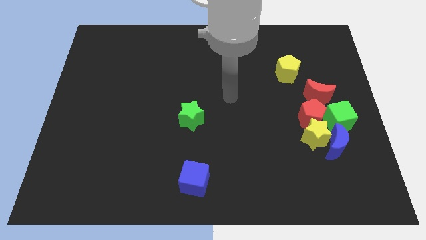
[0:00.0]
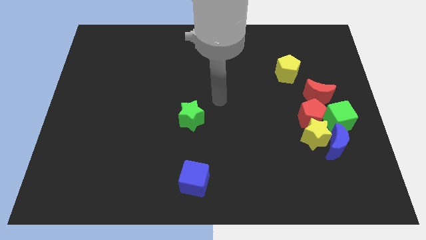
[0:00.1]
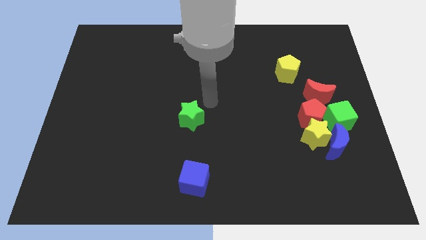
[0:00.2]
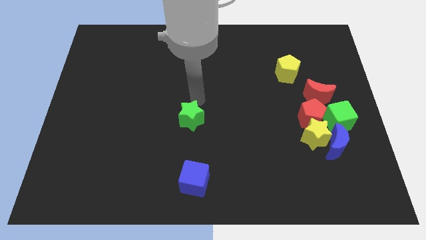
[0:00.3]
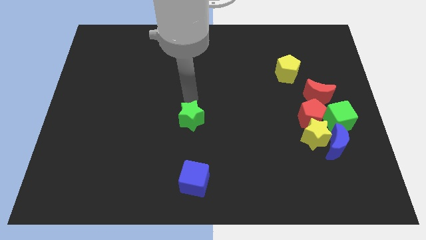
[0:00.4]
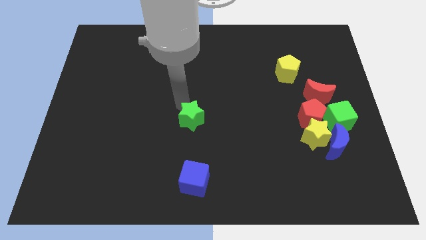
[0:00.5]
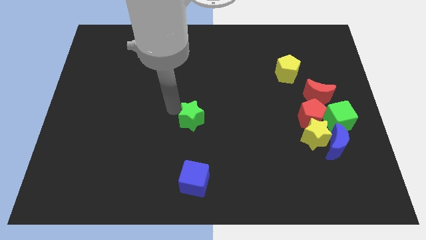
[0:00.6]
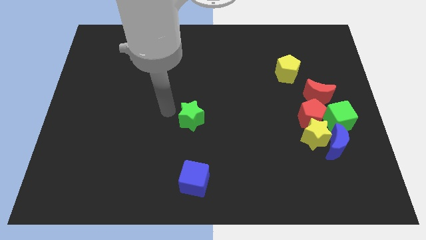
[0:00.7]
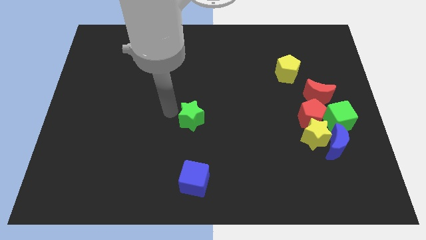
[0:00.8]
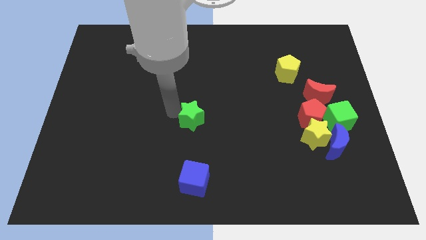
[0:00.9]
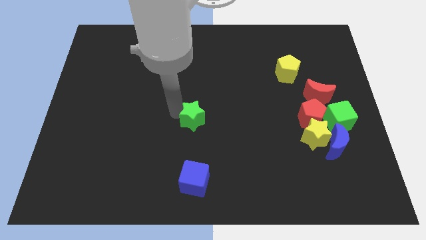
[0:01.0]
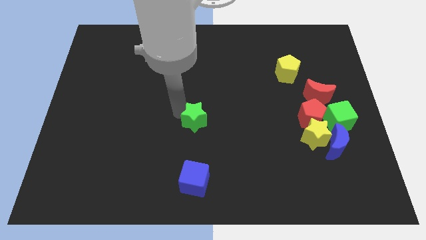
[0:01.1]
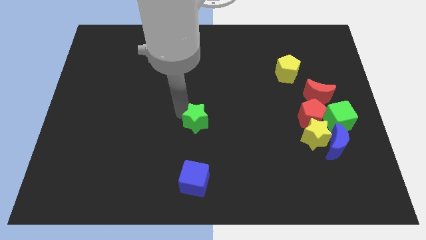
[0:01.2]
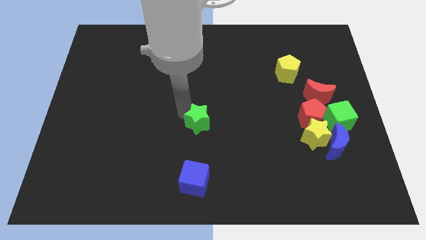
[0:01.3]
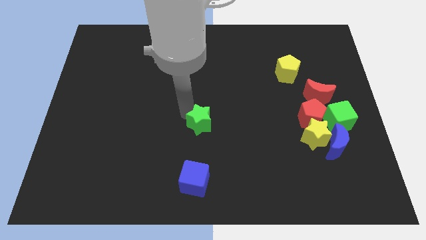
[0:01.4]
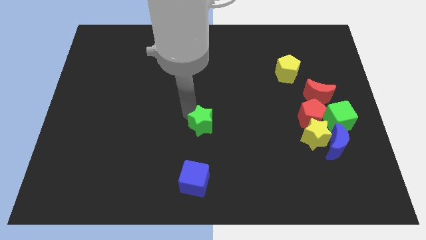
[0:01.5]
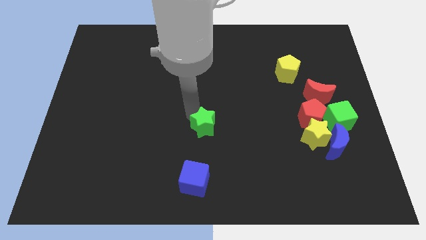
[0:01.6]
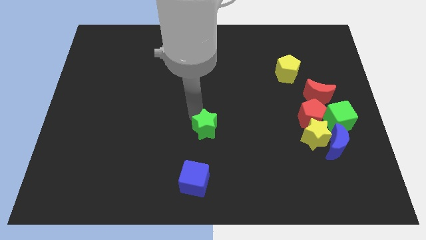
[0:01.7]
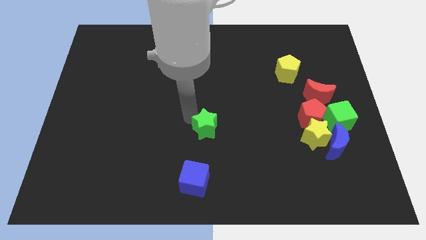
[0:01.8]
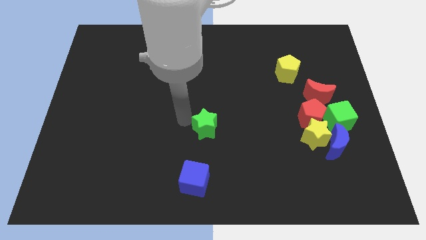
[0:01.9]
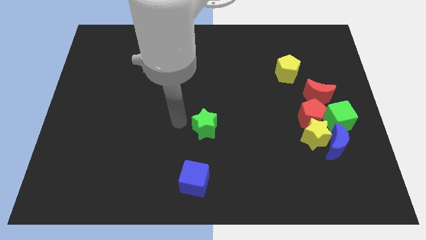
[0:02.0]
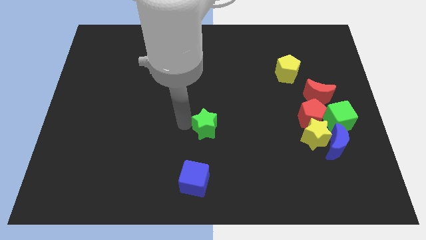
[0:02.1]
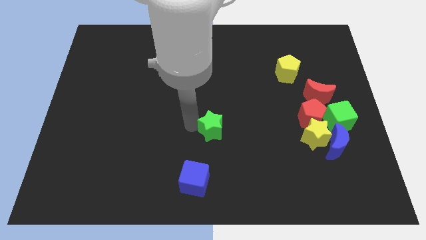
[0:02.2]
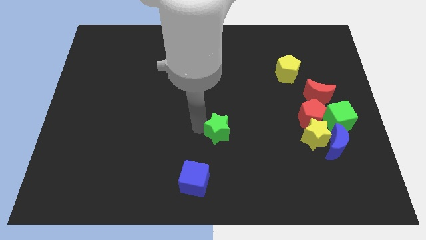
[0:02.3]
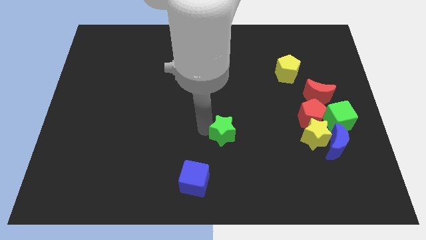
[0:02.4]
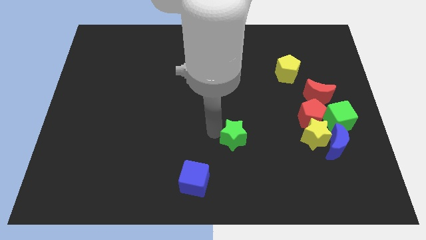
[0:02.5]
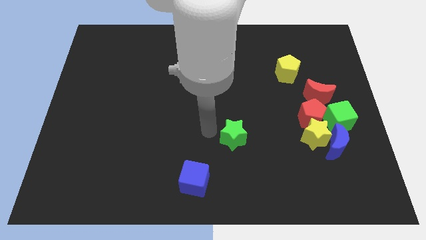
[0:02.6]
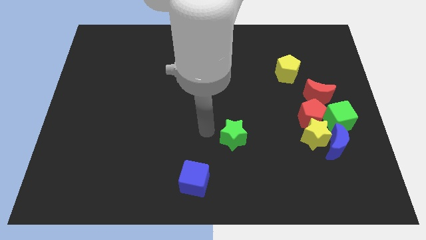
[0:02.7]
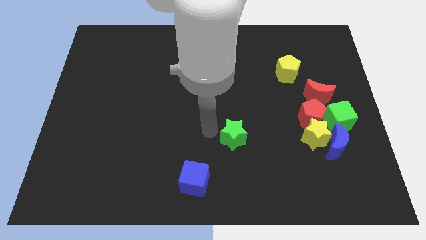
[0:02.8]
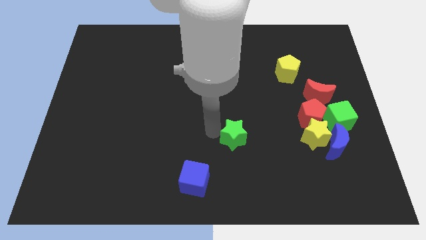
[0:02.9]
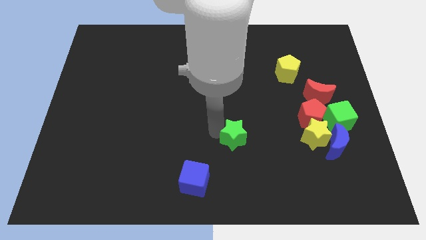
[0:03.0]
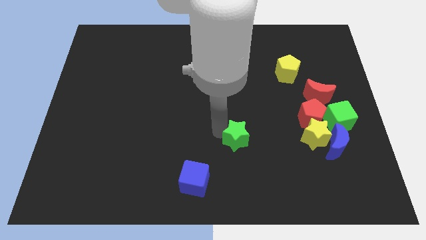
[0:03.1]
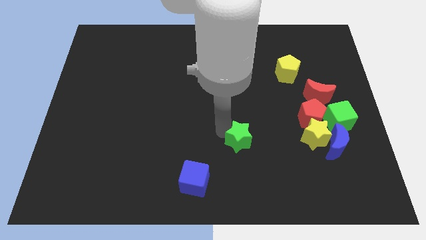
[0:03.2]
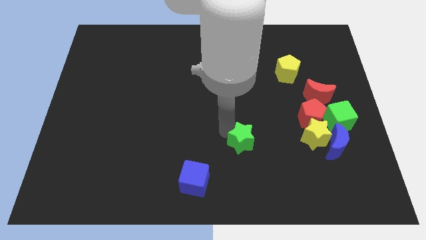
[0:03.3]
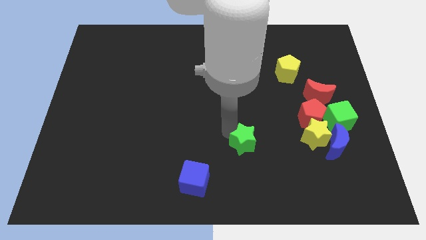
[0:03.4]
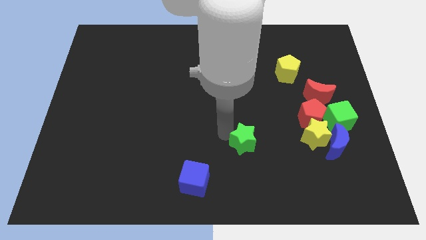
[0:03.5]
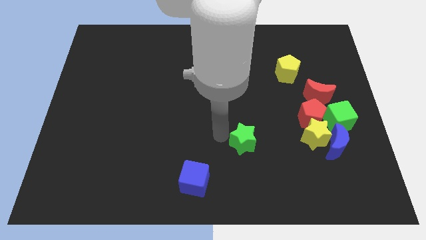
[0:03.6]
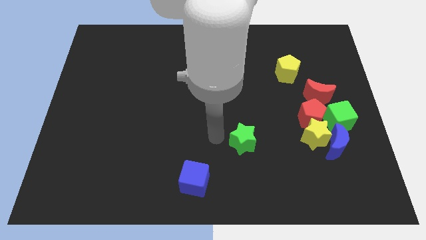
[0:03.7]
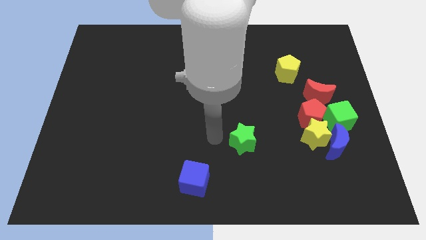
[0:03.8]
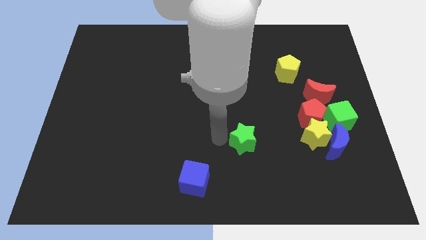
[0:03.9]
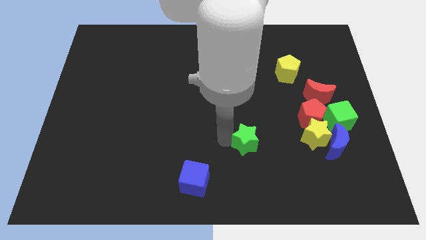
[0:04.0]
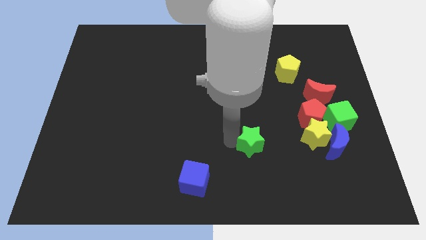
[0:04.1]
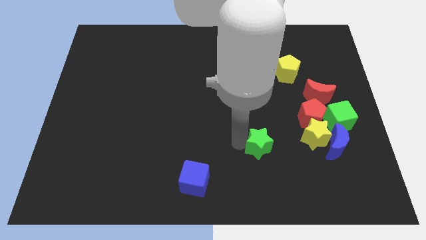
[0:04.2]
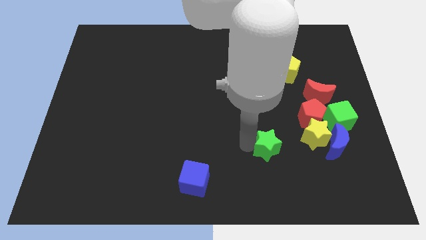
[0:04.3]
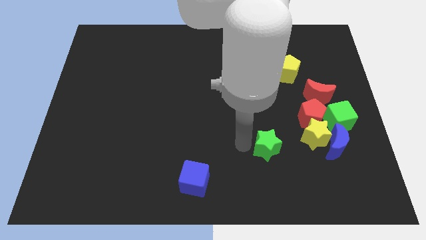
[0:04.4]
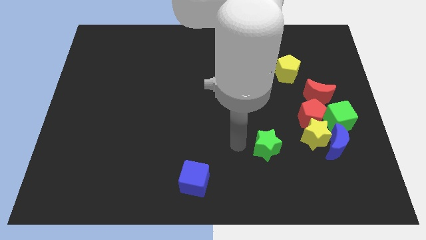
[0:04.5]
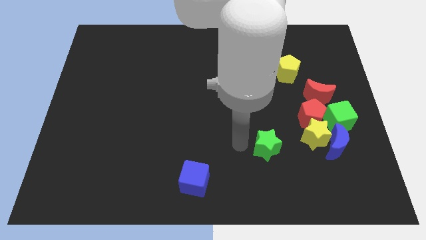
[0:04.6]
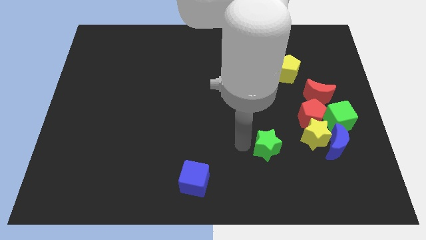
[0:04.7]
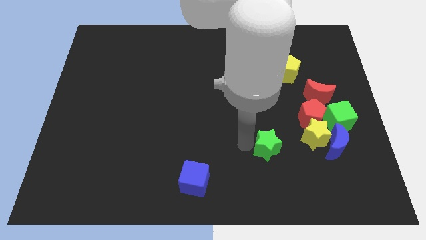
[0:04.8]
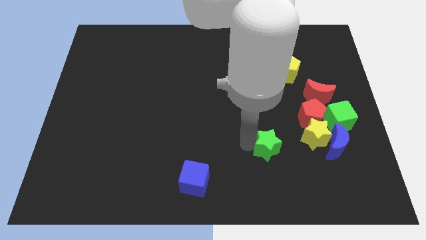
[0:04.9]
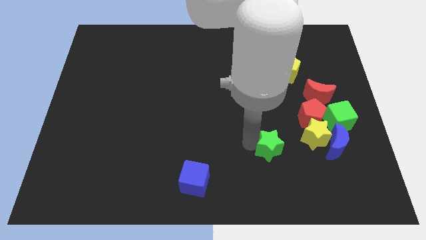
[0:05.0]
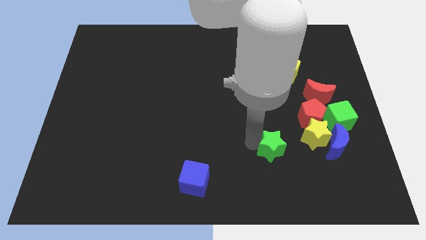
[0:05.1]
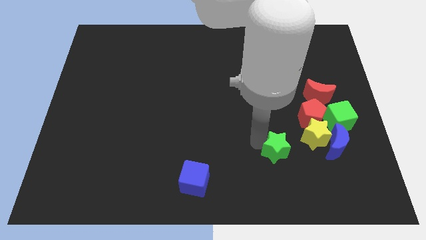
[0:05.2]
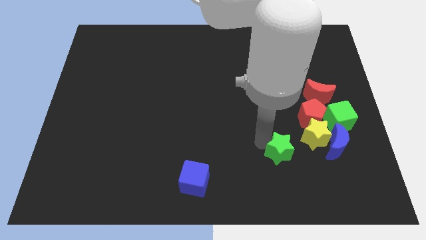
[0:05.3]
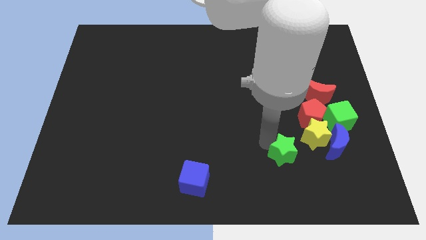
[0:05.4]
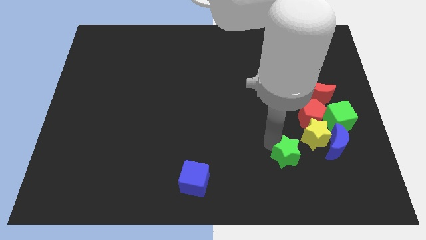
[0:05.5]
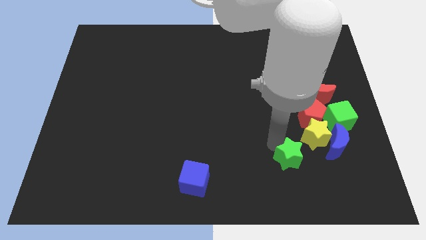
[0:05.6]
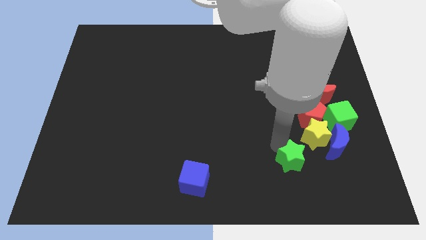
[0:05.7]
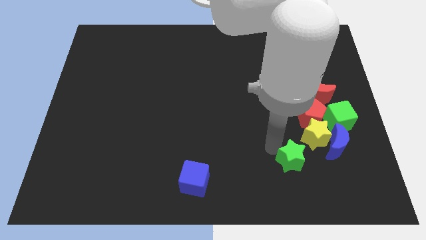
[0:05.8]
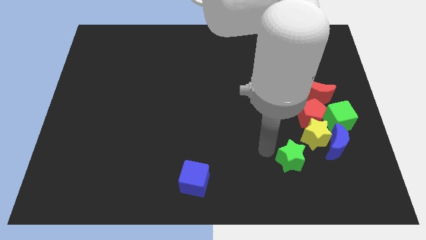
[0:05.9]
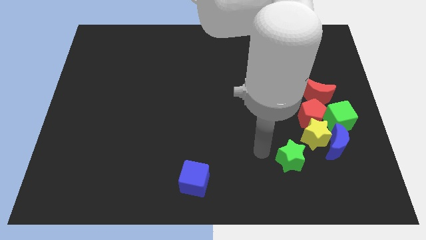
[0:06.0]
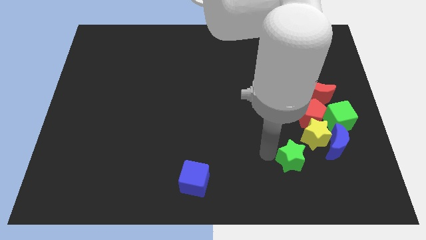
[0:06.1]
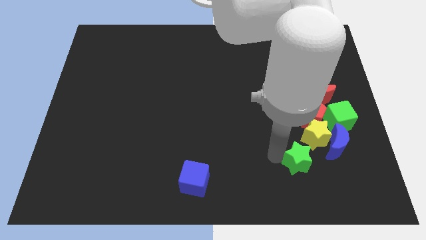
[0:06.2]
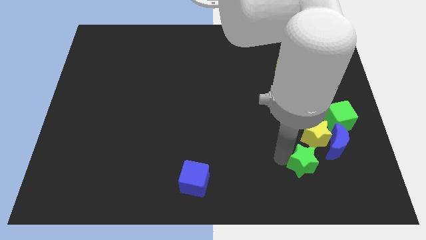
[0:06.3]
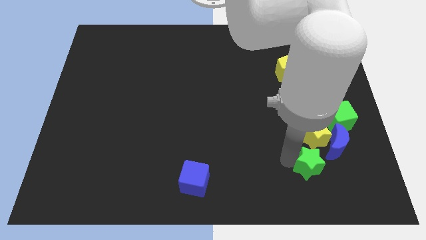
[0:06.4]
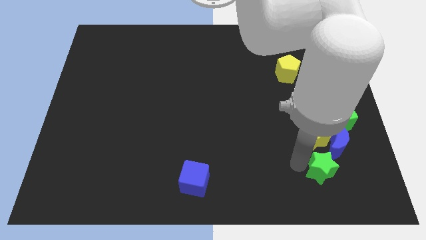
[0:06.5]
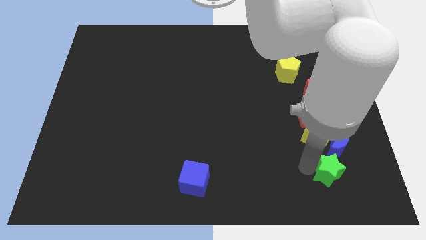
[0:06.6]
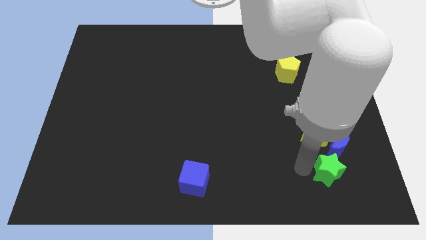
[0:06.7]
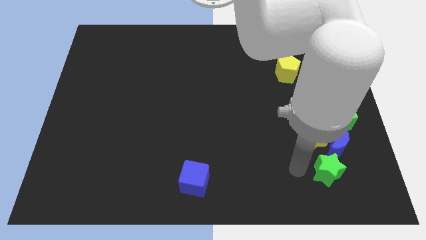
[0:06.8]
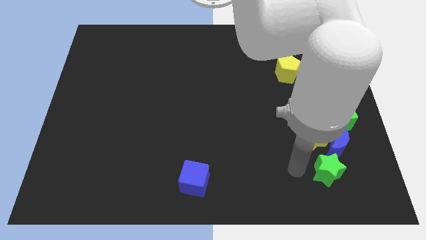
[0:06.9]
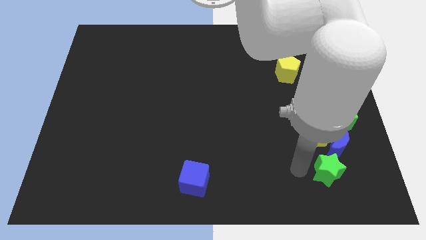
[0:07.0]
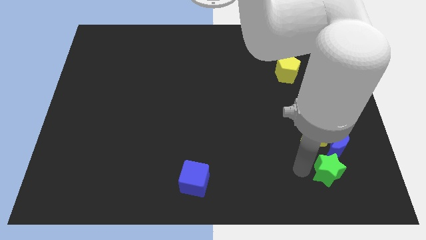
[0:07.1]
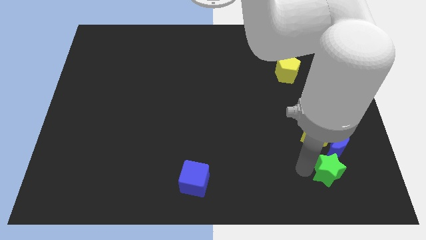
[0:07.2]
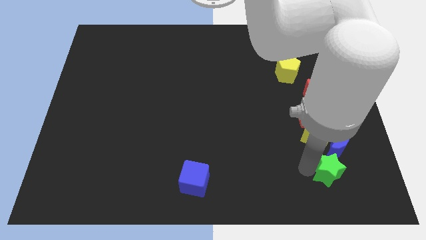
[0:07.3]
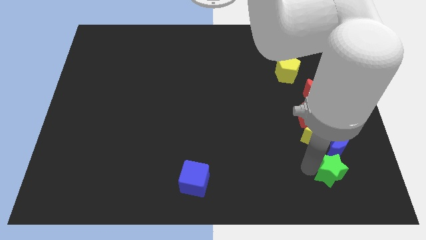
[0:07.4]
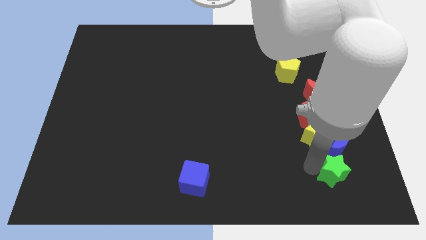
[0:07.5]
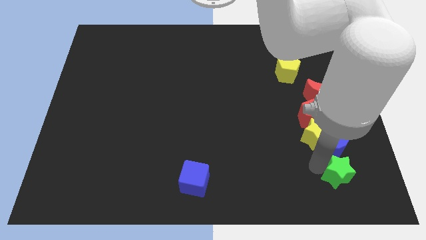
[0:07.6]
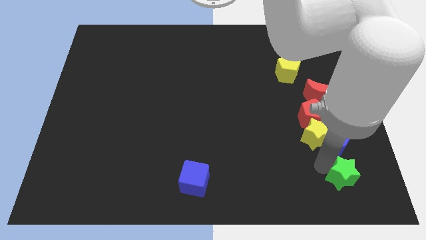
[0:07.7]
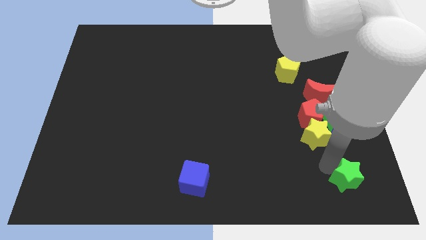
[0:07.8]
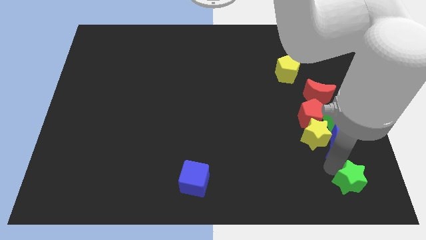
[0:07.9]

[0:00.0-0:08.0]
slide the green star to the lower right corner
